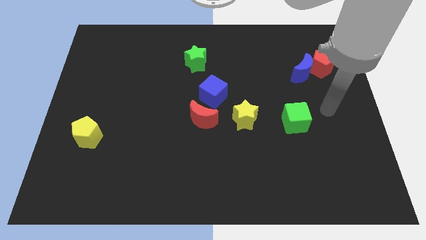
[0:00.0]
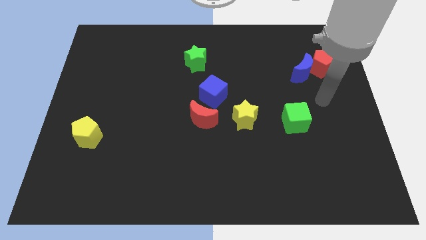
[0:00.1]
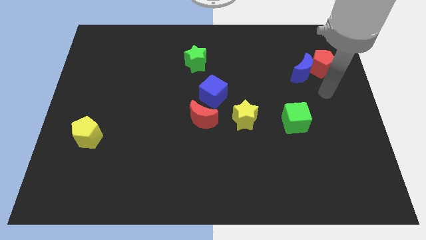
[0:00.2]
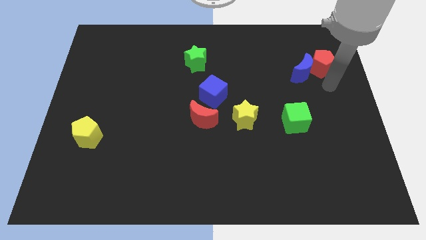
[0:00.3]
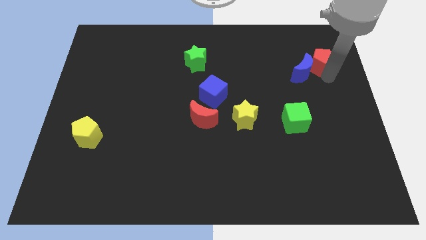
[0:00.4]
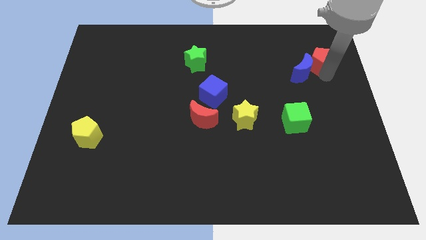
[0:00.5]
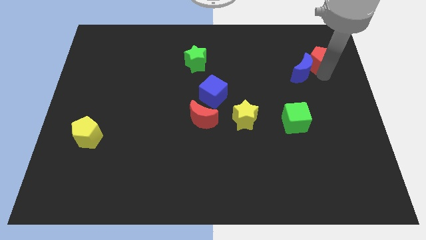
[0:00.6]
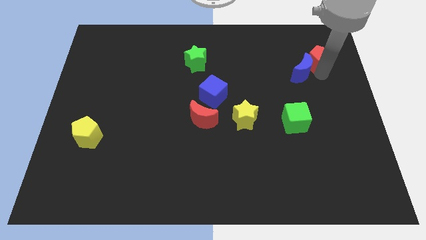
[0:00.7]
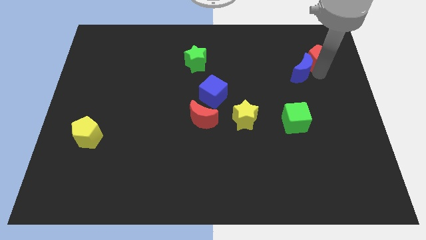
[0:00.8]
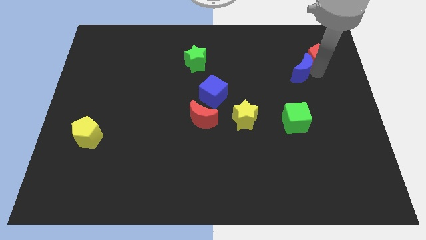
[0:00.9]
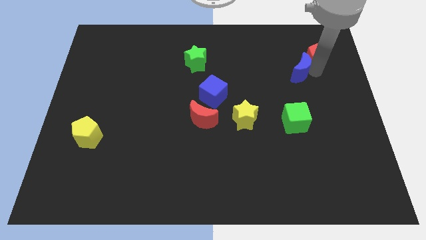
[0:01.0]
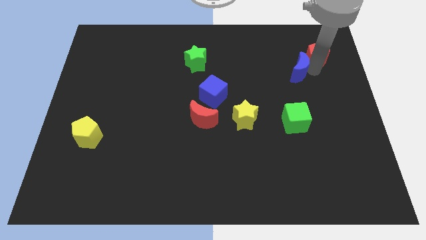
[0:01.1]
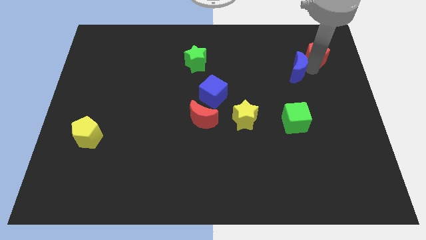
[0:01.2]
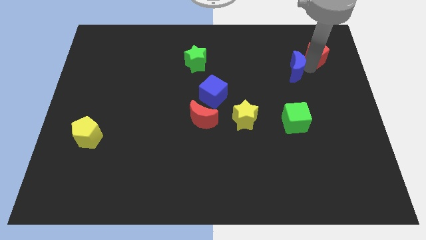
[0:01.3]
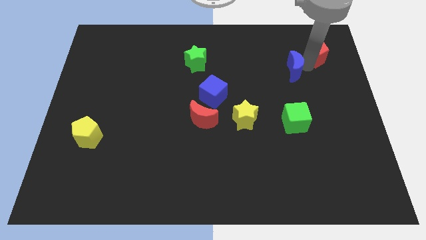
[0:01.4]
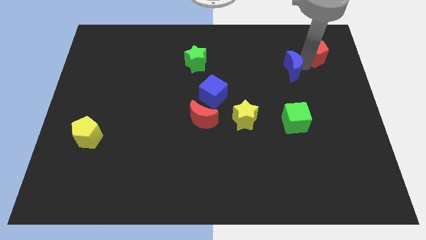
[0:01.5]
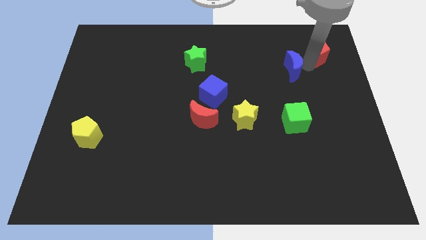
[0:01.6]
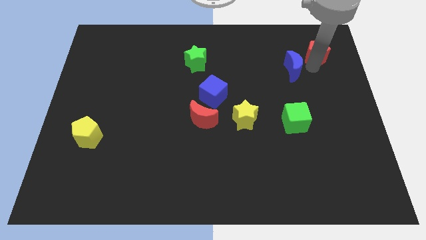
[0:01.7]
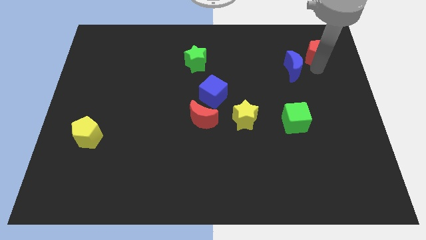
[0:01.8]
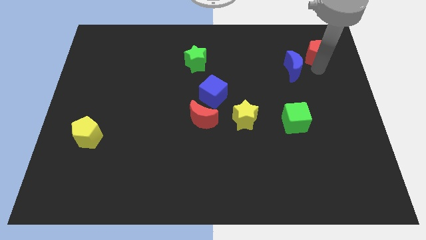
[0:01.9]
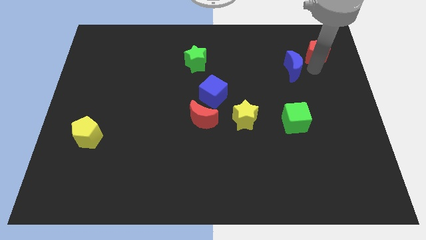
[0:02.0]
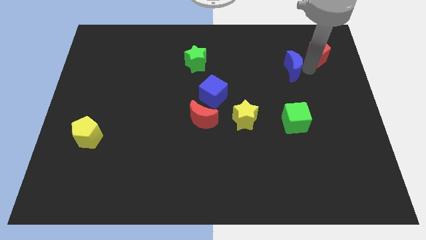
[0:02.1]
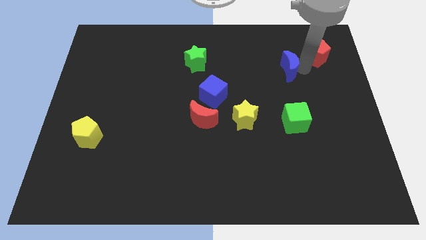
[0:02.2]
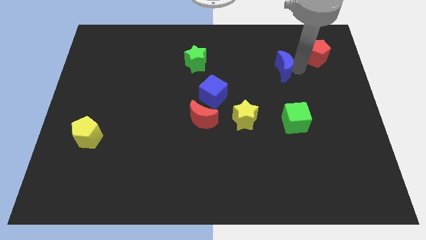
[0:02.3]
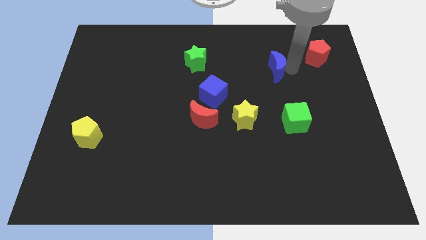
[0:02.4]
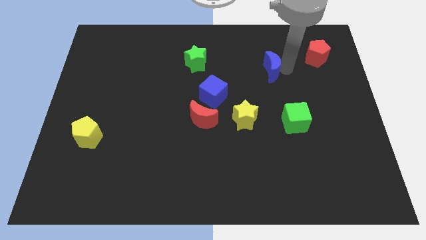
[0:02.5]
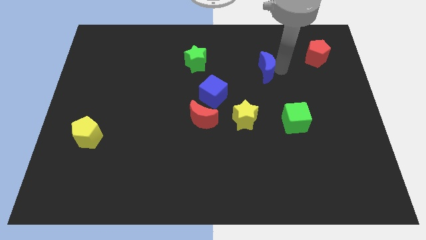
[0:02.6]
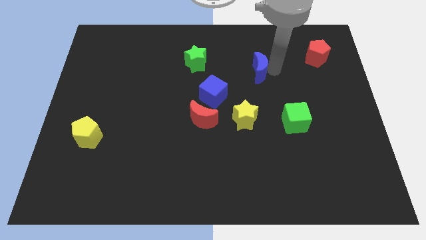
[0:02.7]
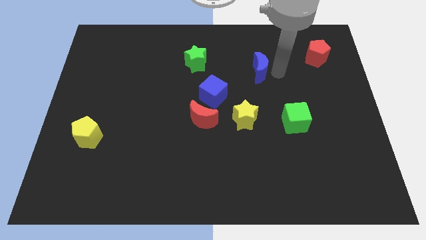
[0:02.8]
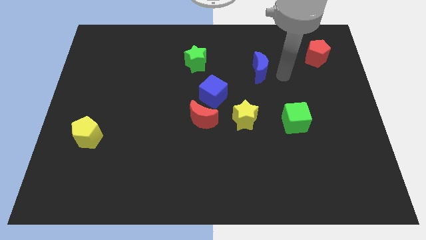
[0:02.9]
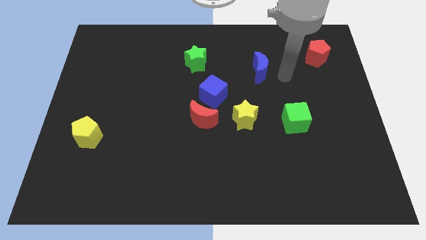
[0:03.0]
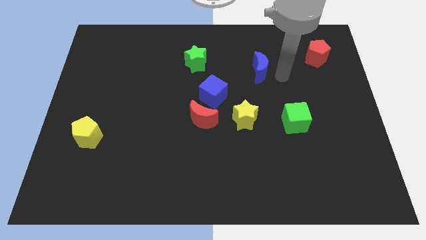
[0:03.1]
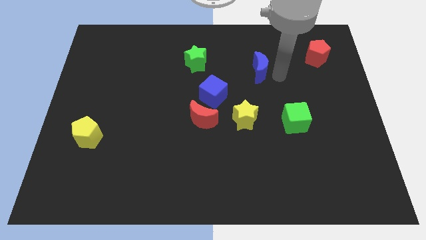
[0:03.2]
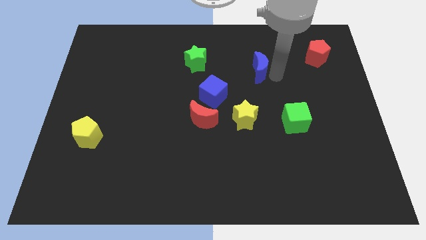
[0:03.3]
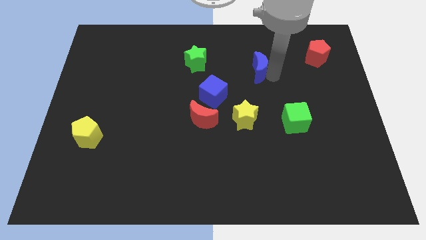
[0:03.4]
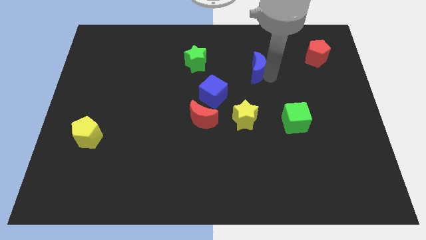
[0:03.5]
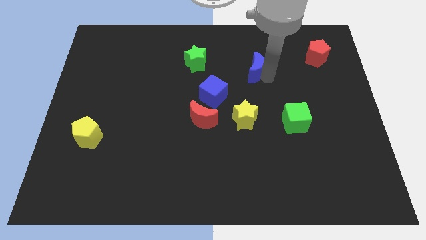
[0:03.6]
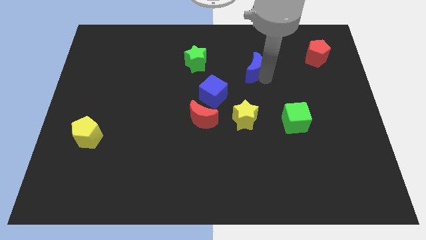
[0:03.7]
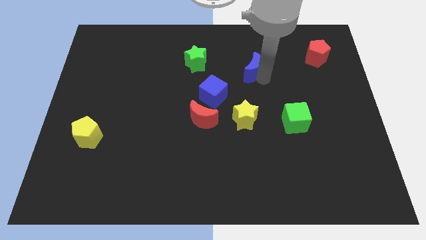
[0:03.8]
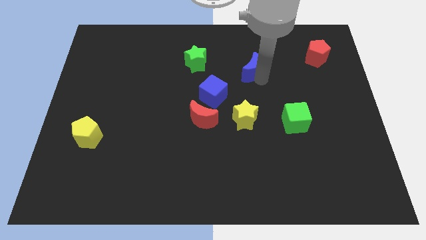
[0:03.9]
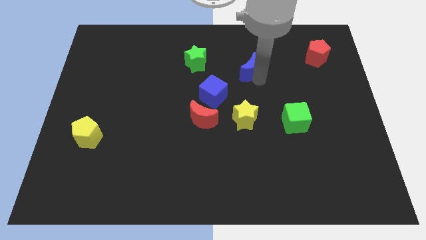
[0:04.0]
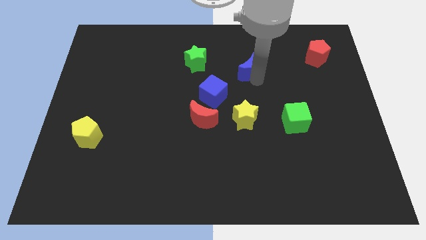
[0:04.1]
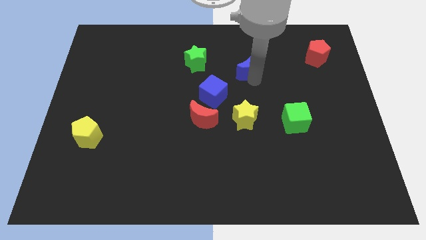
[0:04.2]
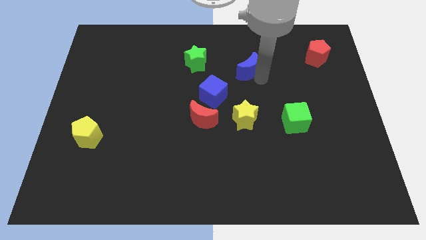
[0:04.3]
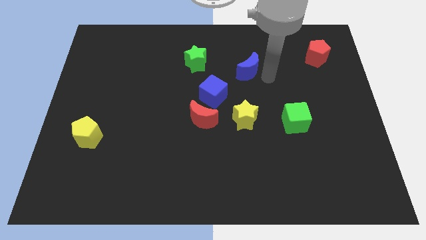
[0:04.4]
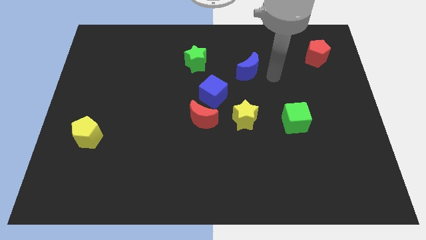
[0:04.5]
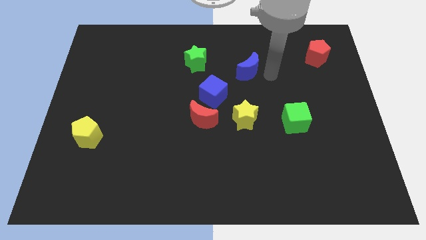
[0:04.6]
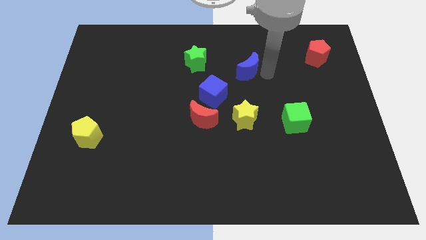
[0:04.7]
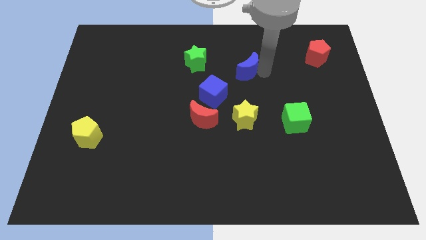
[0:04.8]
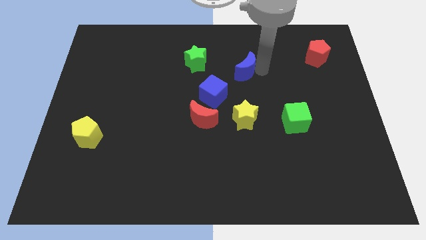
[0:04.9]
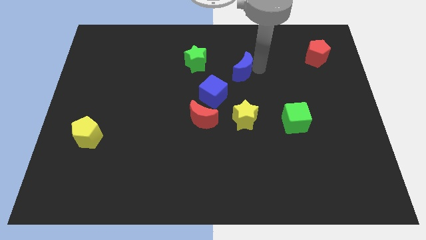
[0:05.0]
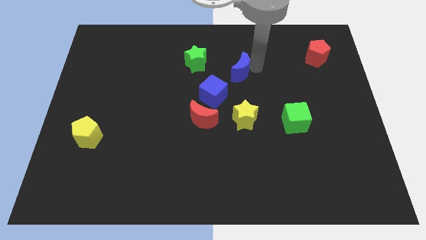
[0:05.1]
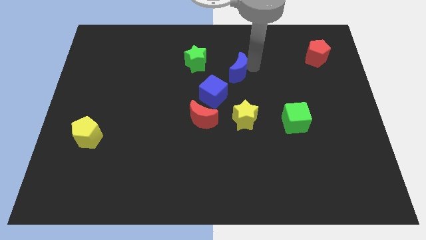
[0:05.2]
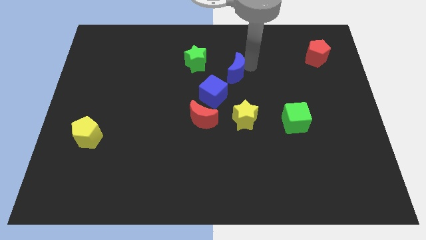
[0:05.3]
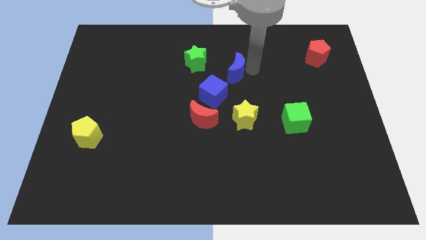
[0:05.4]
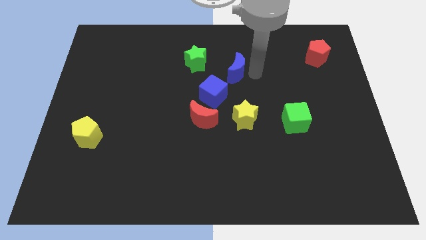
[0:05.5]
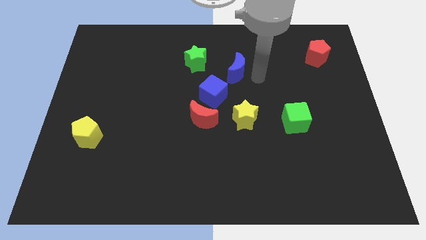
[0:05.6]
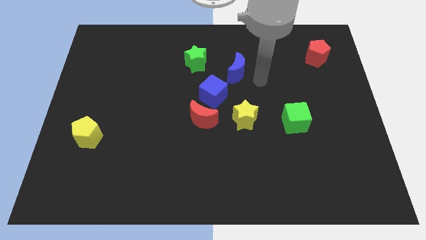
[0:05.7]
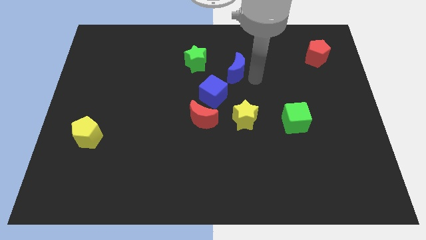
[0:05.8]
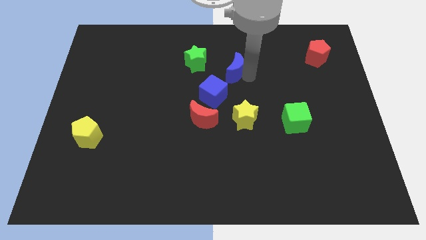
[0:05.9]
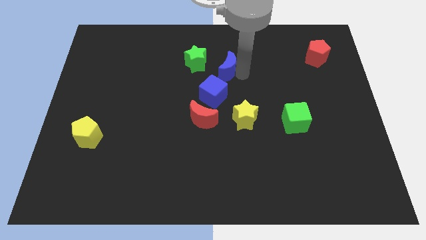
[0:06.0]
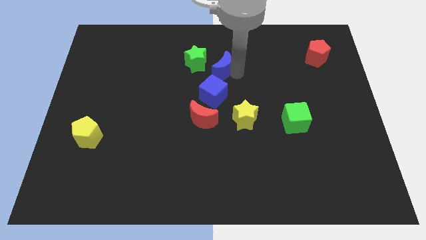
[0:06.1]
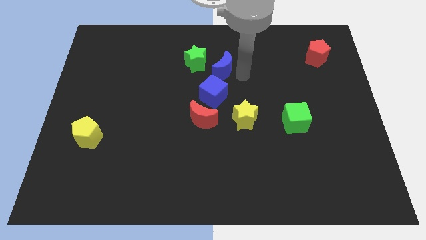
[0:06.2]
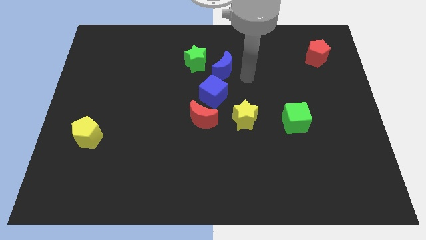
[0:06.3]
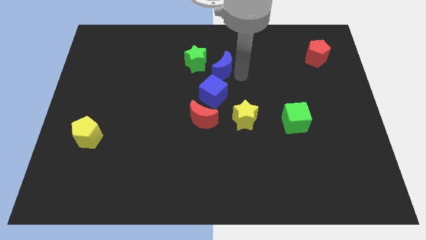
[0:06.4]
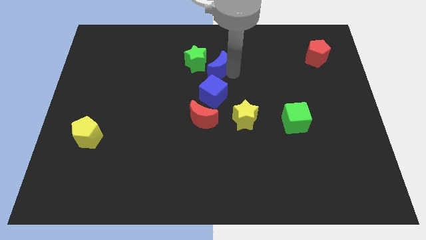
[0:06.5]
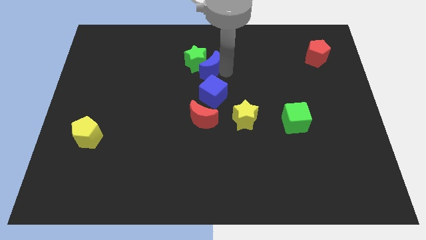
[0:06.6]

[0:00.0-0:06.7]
move the blue moon to the green star

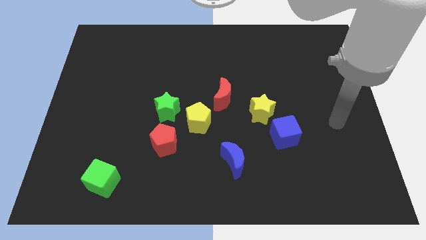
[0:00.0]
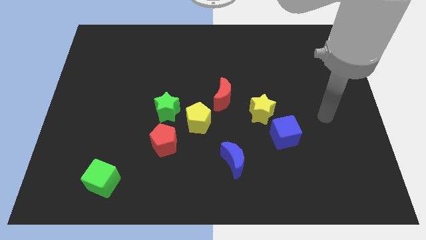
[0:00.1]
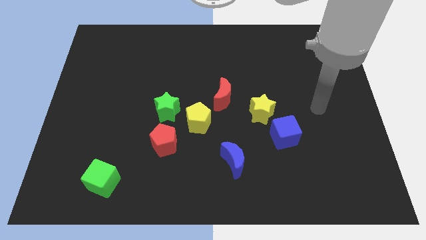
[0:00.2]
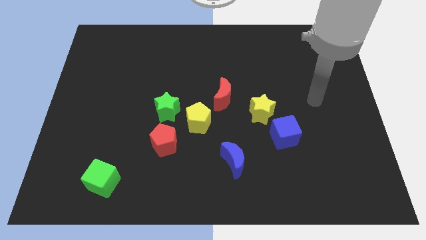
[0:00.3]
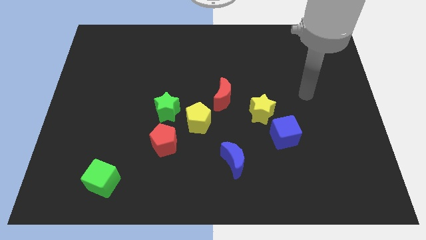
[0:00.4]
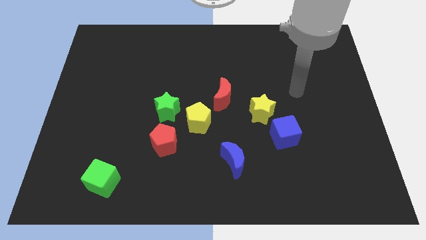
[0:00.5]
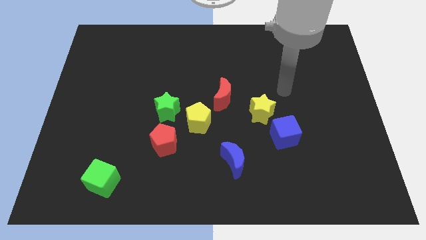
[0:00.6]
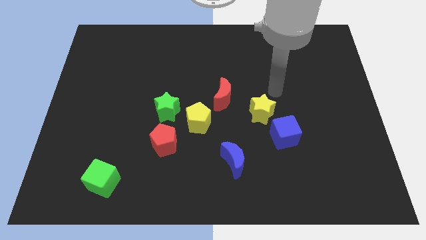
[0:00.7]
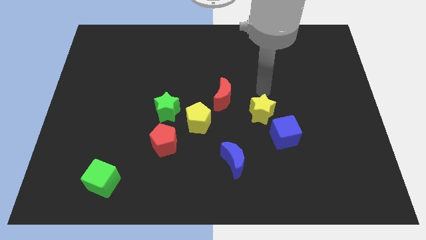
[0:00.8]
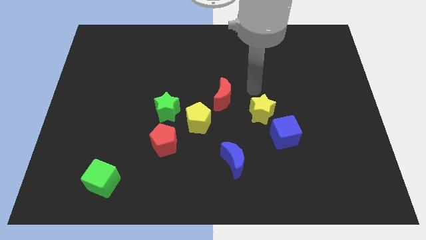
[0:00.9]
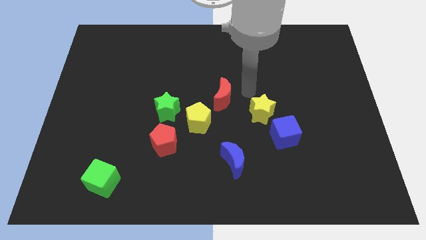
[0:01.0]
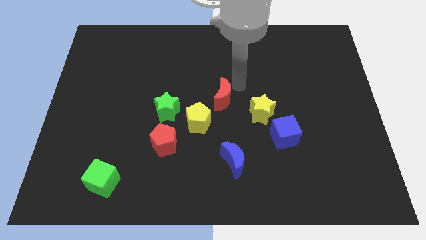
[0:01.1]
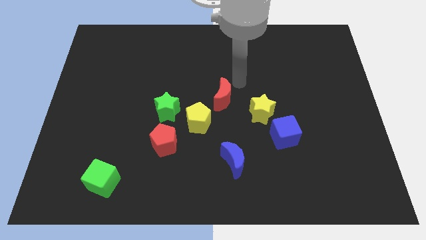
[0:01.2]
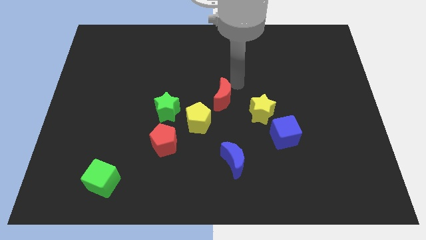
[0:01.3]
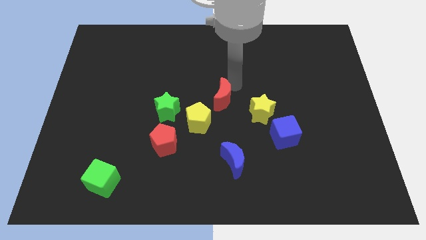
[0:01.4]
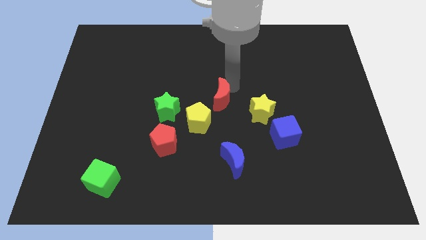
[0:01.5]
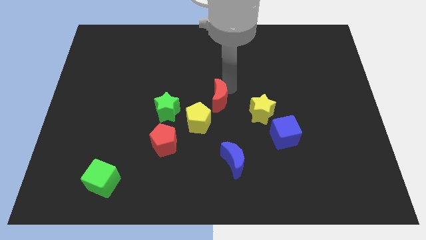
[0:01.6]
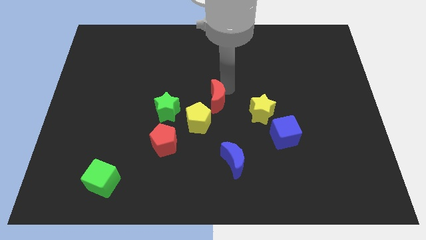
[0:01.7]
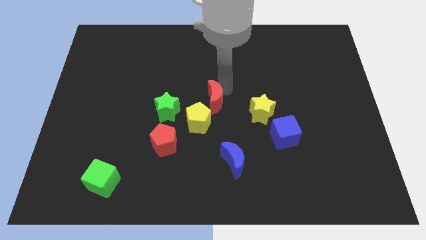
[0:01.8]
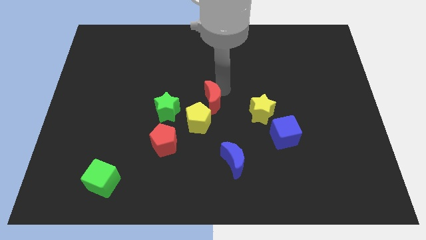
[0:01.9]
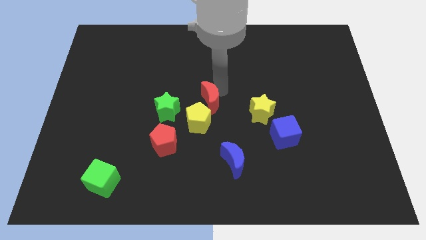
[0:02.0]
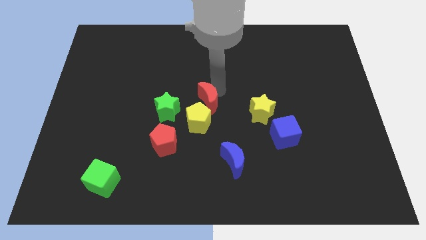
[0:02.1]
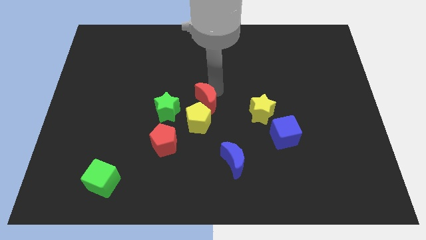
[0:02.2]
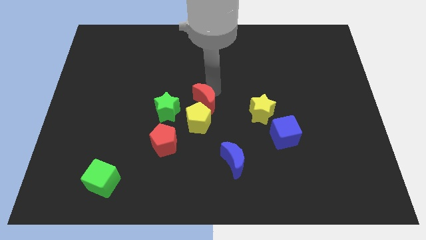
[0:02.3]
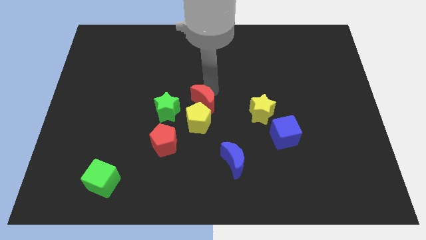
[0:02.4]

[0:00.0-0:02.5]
push the red moon next to the yellow pentagon
